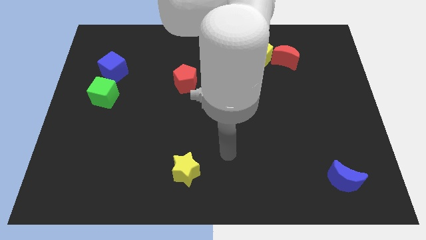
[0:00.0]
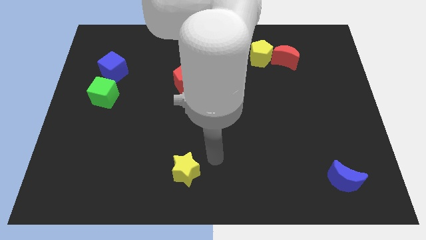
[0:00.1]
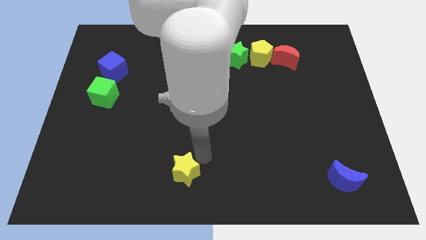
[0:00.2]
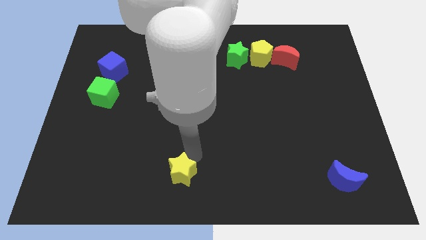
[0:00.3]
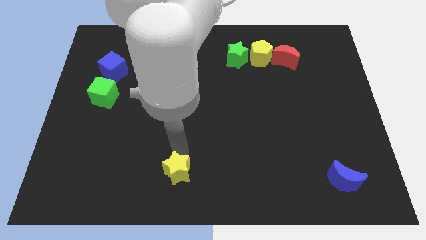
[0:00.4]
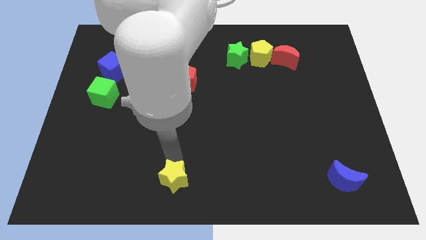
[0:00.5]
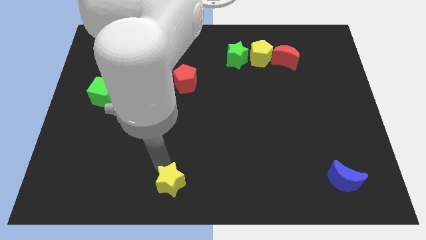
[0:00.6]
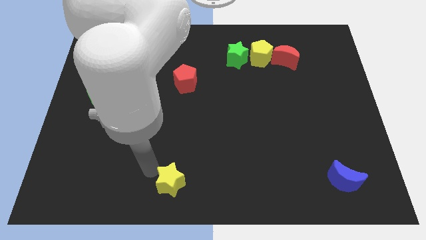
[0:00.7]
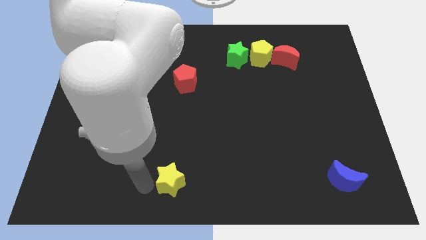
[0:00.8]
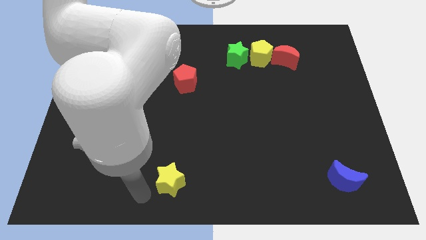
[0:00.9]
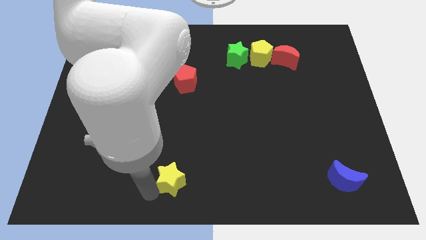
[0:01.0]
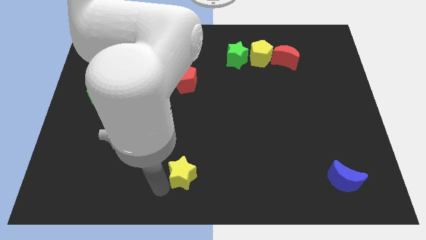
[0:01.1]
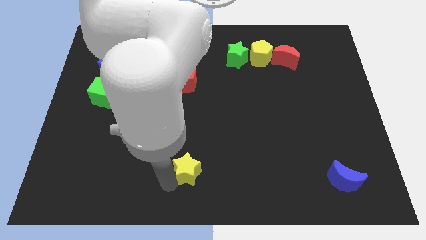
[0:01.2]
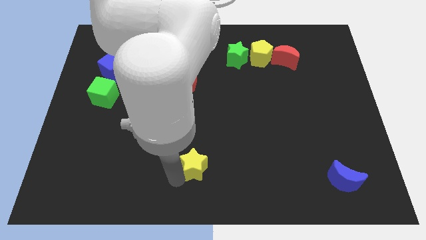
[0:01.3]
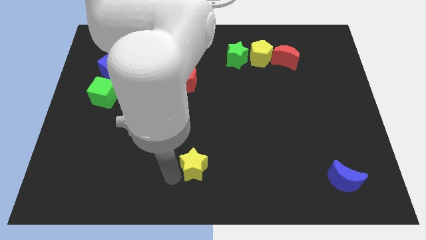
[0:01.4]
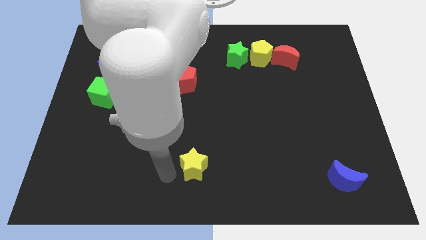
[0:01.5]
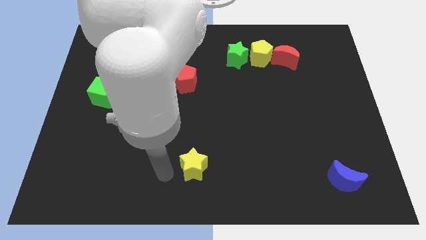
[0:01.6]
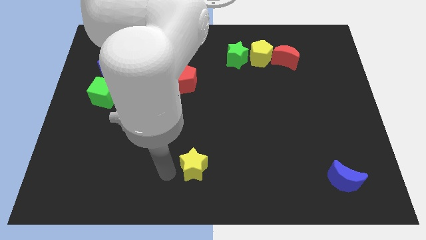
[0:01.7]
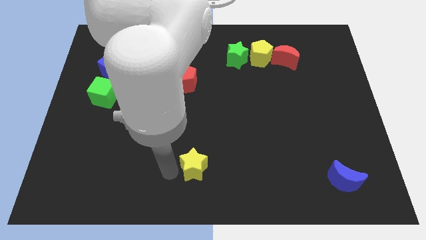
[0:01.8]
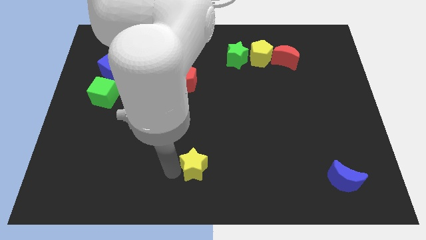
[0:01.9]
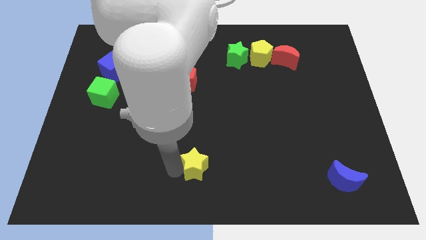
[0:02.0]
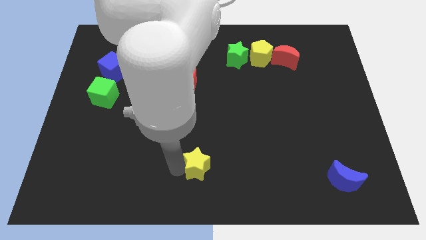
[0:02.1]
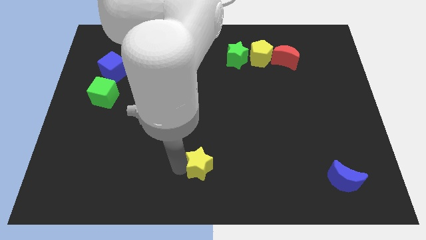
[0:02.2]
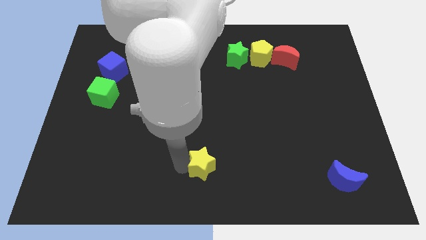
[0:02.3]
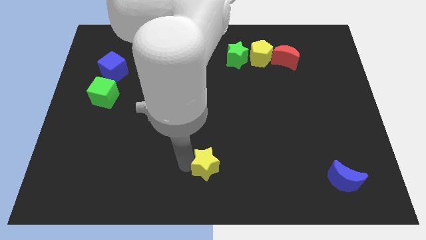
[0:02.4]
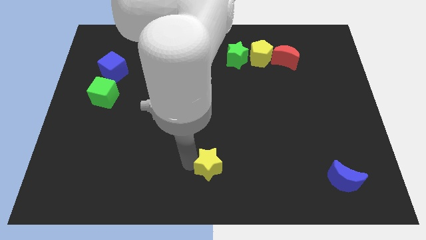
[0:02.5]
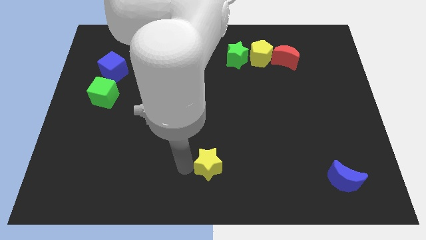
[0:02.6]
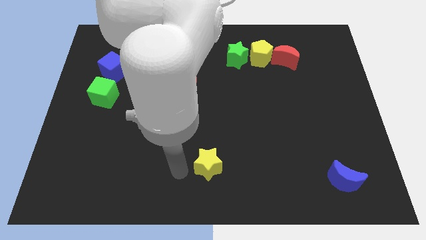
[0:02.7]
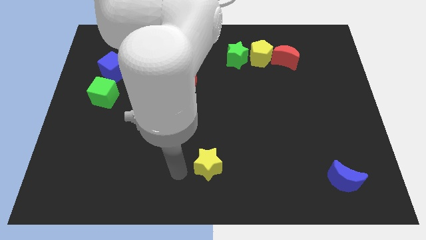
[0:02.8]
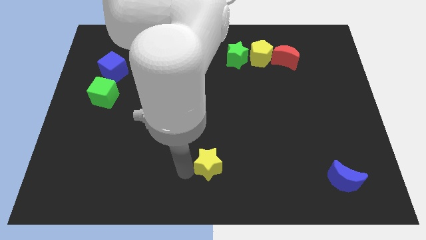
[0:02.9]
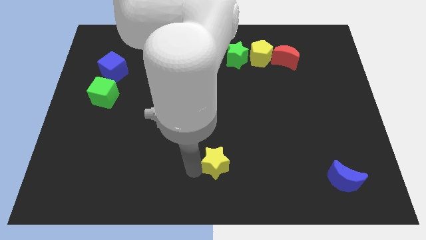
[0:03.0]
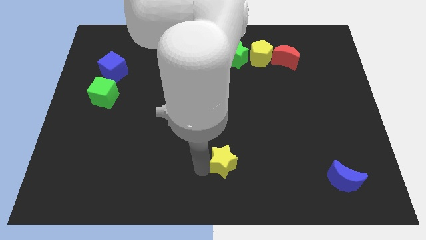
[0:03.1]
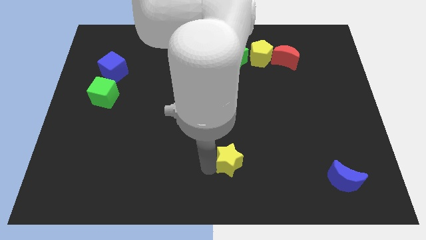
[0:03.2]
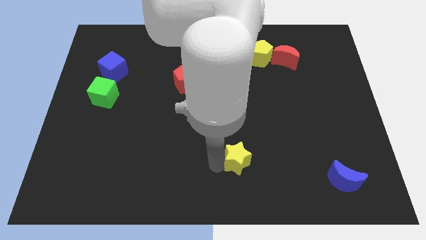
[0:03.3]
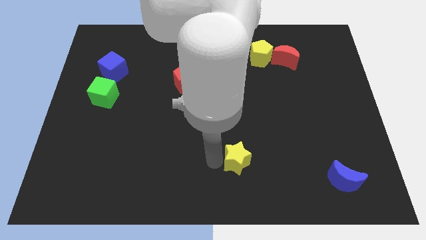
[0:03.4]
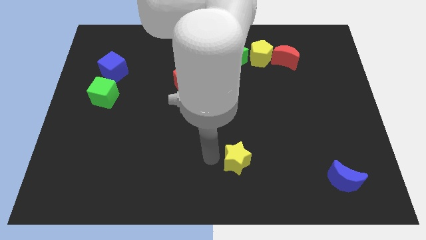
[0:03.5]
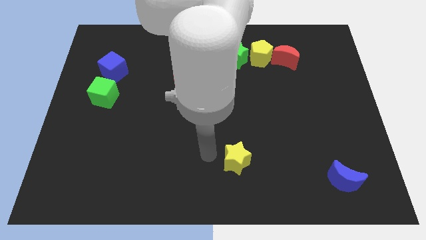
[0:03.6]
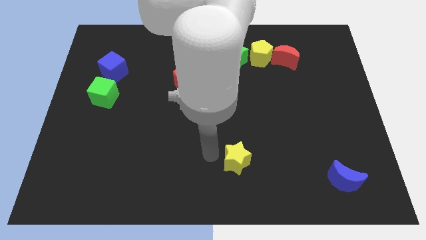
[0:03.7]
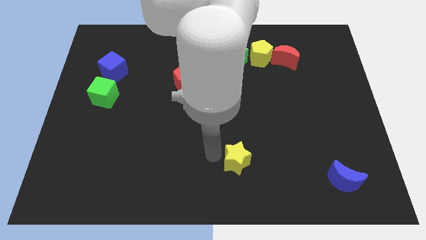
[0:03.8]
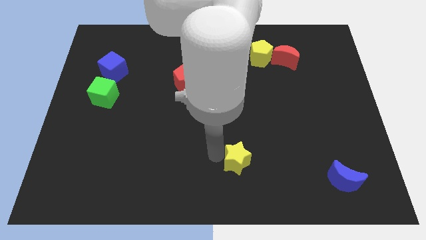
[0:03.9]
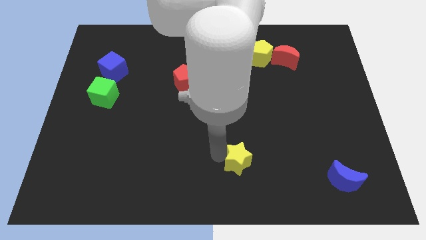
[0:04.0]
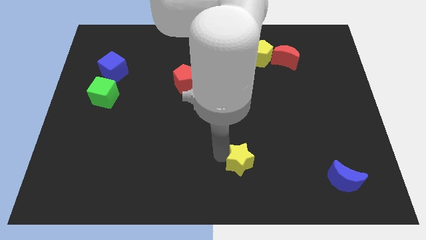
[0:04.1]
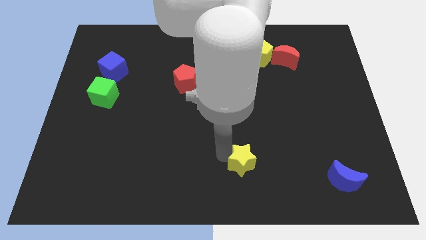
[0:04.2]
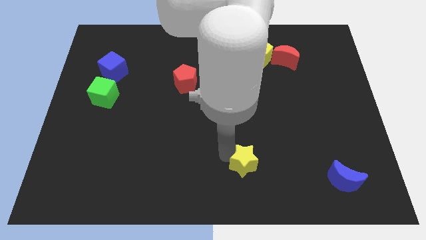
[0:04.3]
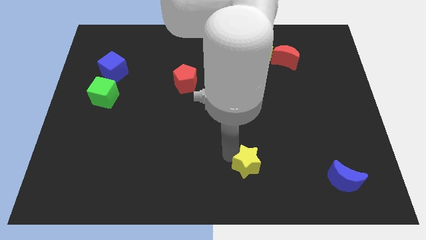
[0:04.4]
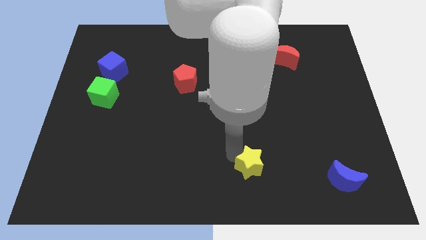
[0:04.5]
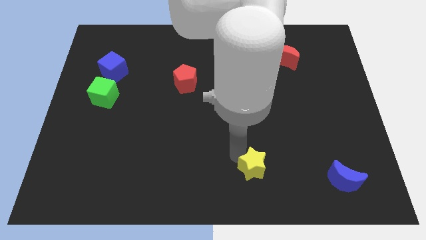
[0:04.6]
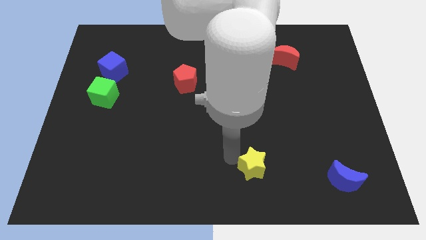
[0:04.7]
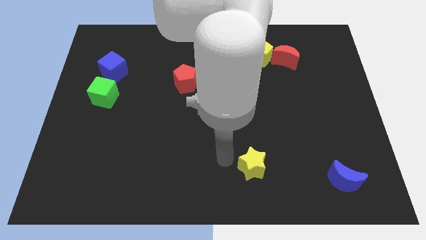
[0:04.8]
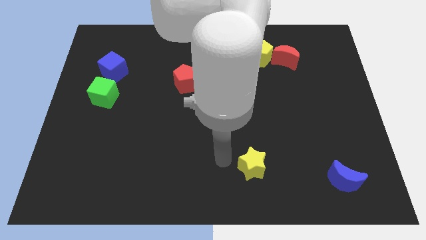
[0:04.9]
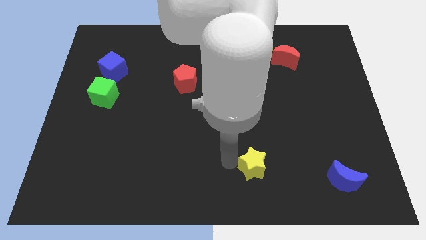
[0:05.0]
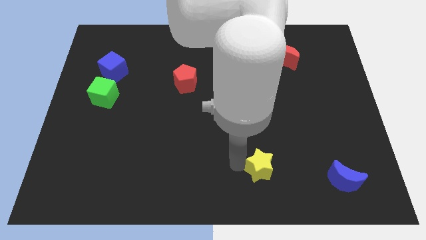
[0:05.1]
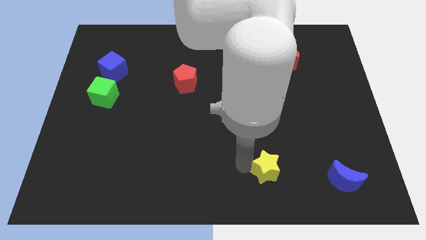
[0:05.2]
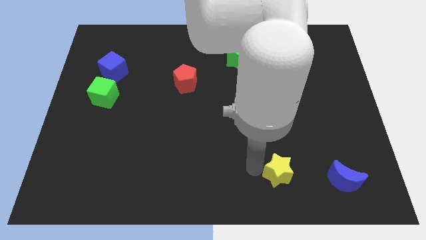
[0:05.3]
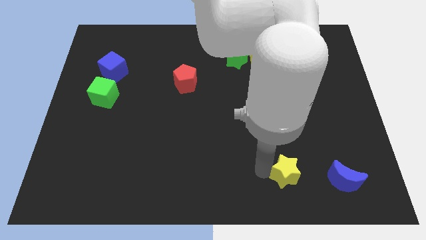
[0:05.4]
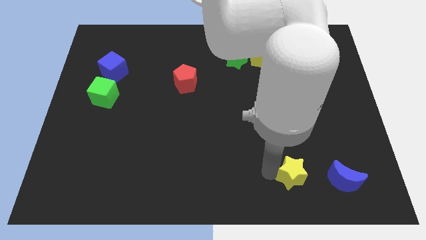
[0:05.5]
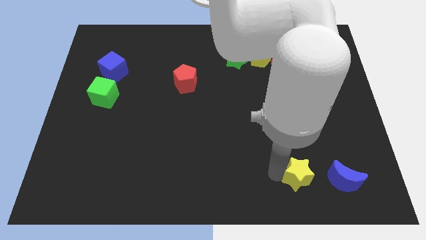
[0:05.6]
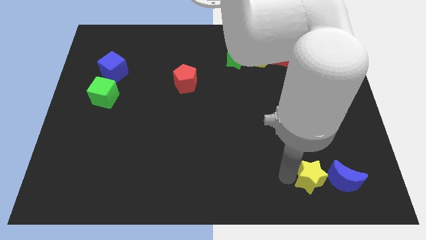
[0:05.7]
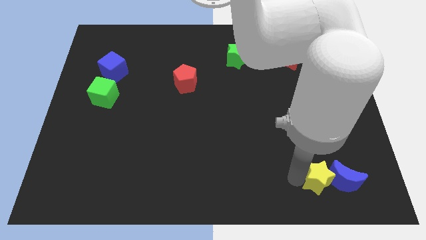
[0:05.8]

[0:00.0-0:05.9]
move the yellow star to the blue moon

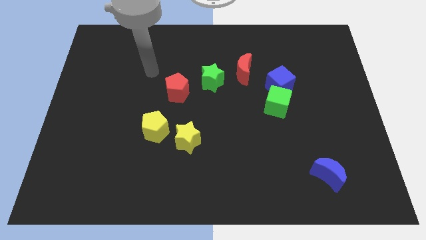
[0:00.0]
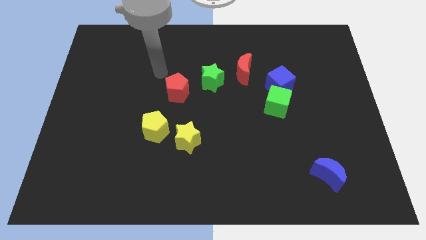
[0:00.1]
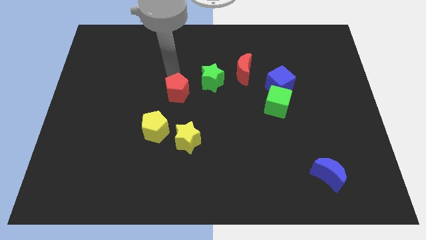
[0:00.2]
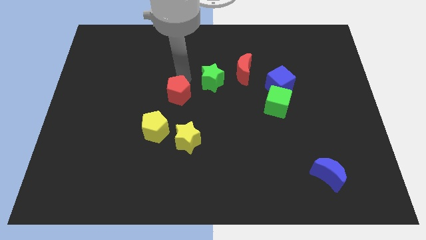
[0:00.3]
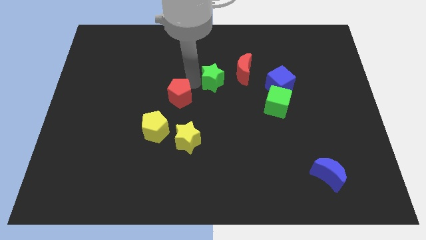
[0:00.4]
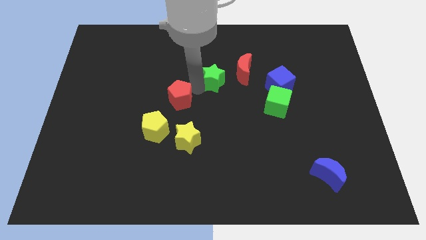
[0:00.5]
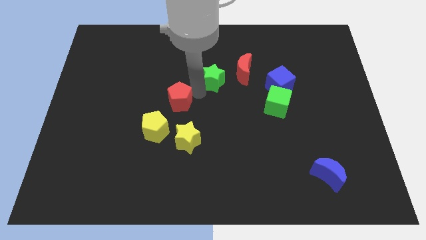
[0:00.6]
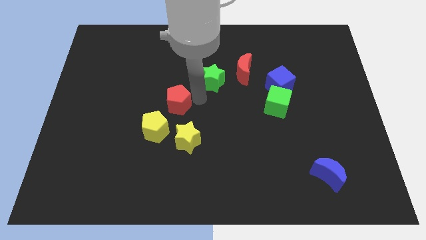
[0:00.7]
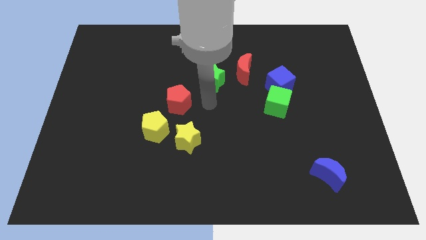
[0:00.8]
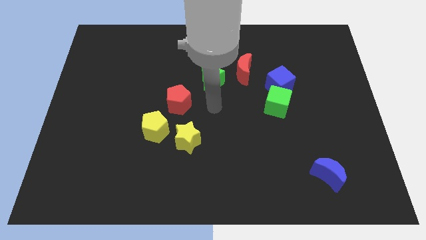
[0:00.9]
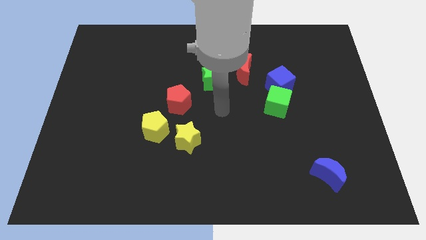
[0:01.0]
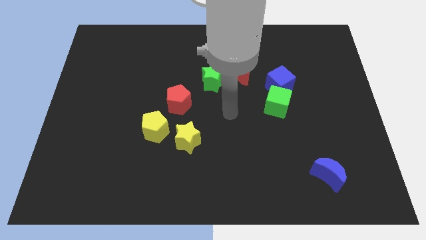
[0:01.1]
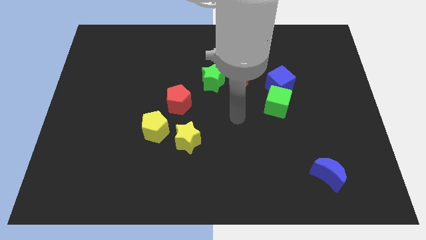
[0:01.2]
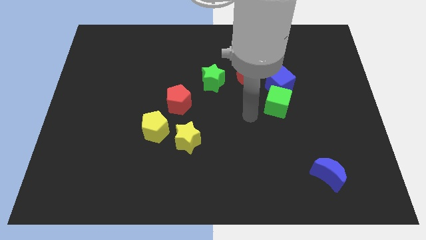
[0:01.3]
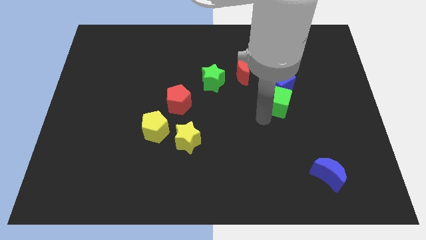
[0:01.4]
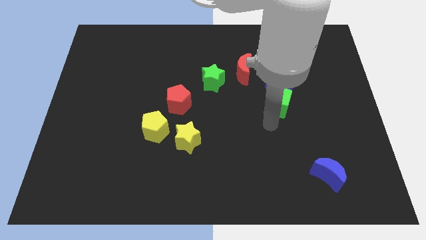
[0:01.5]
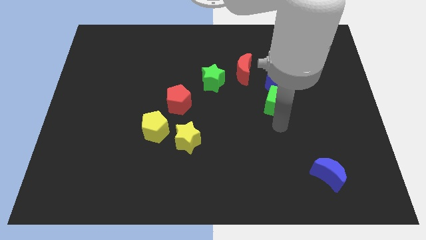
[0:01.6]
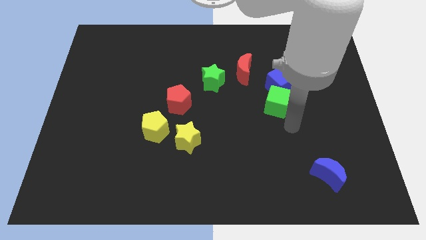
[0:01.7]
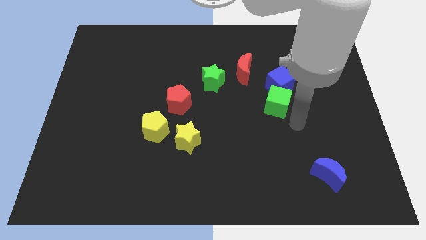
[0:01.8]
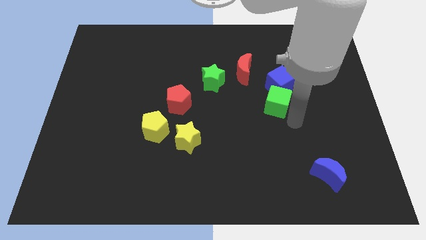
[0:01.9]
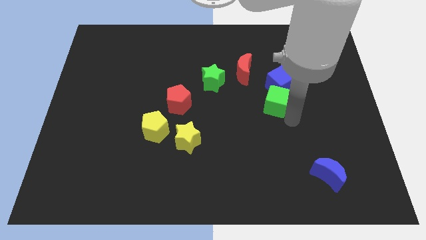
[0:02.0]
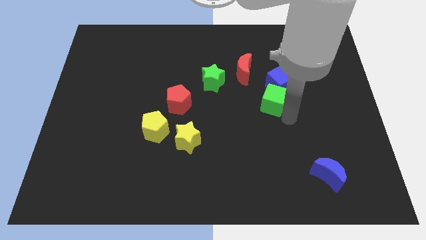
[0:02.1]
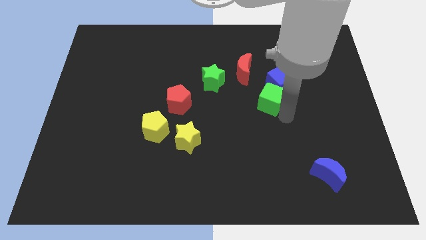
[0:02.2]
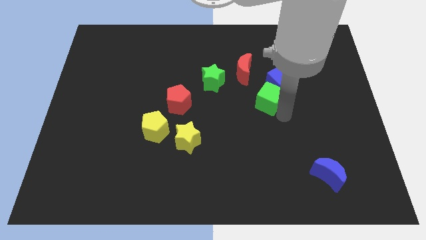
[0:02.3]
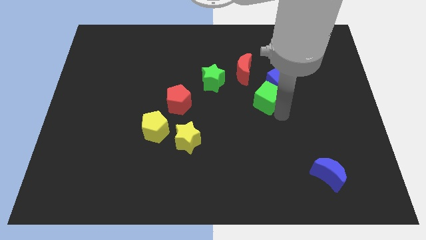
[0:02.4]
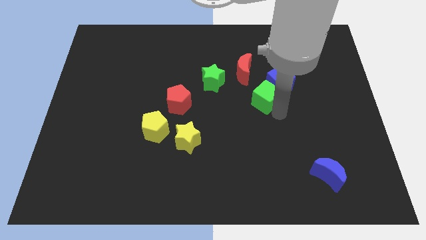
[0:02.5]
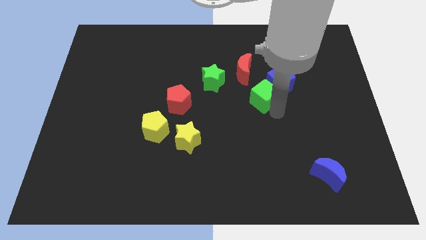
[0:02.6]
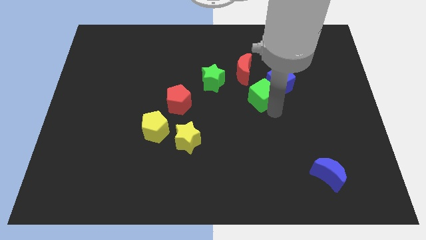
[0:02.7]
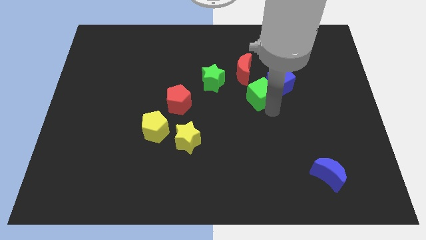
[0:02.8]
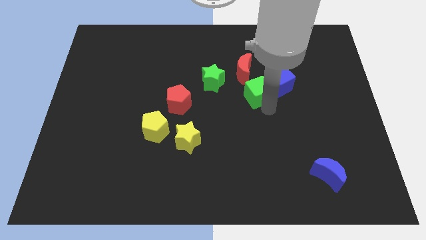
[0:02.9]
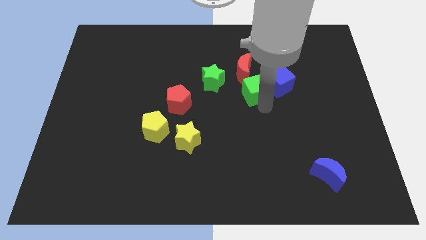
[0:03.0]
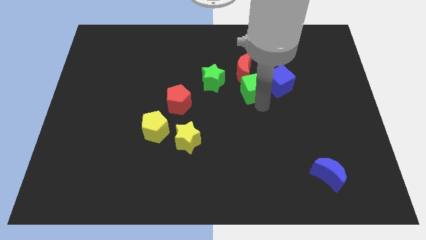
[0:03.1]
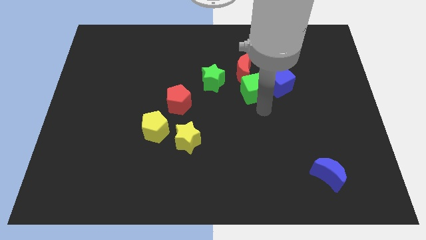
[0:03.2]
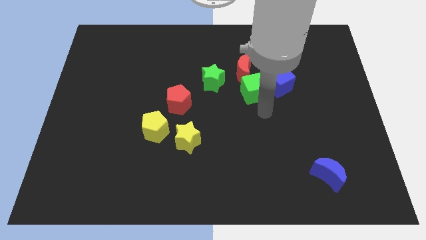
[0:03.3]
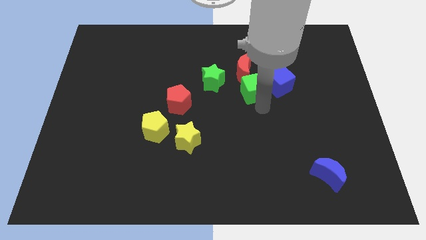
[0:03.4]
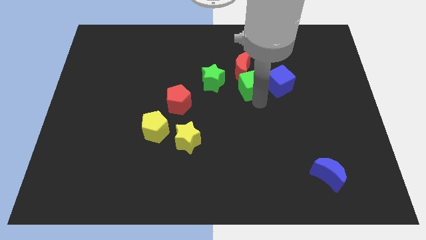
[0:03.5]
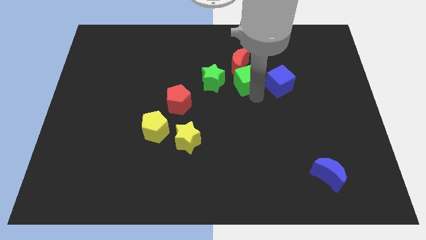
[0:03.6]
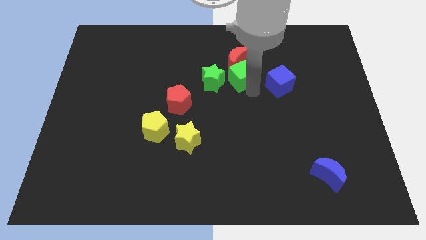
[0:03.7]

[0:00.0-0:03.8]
slide the green cube to the red moon
